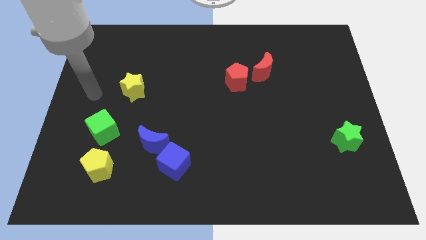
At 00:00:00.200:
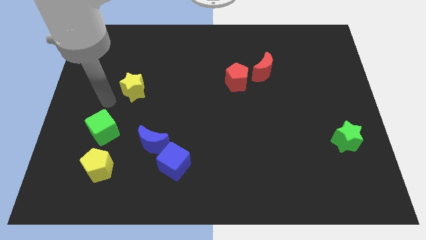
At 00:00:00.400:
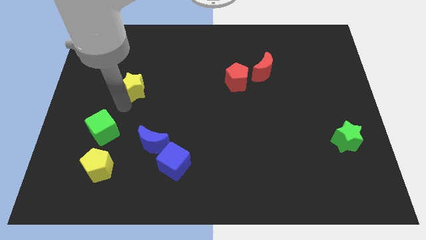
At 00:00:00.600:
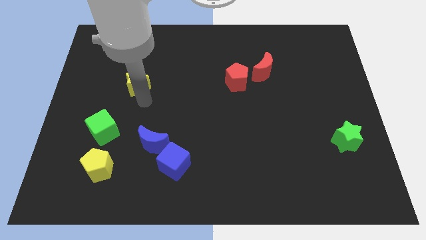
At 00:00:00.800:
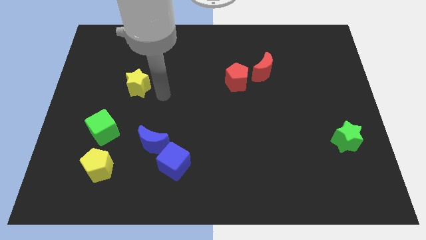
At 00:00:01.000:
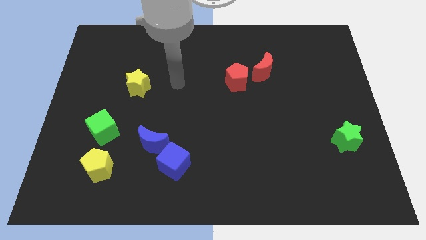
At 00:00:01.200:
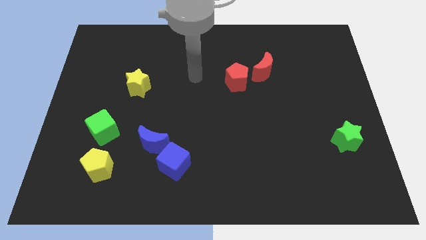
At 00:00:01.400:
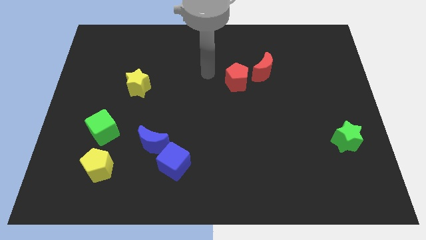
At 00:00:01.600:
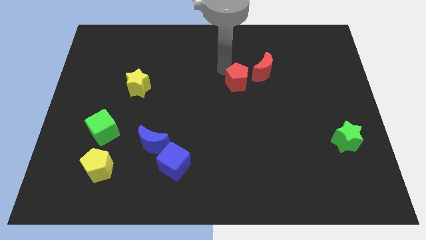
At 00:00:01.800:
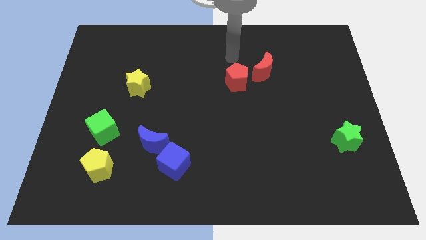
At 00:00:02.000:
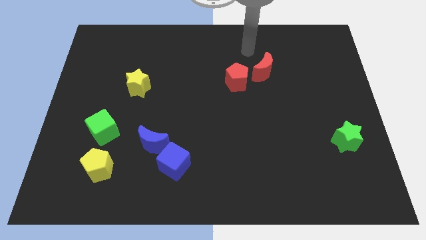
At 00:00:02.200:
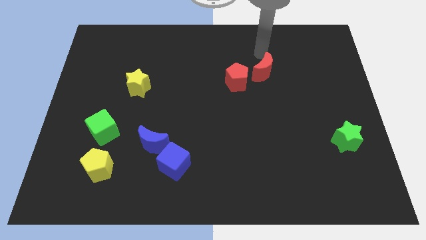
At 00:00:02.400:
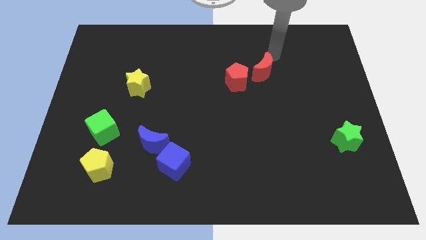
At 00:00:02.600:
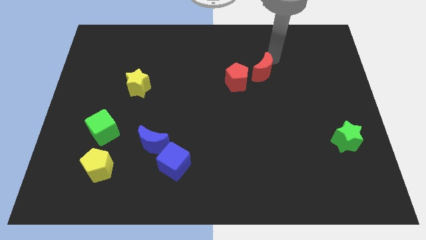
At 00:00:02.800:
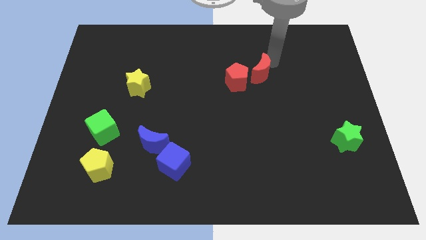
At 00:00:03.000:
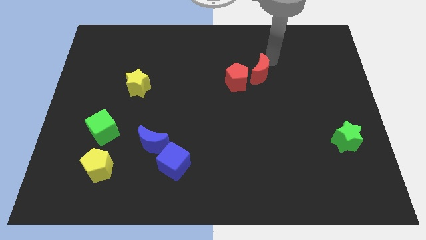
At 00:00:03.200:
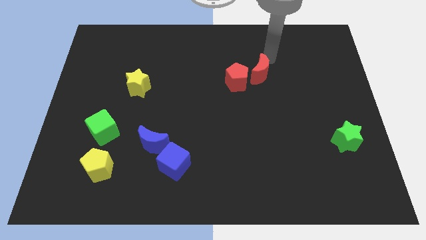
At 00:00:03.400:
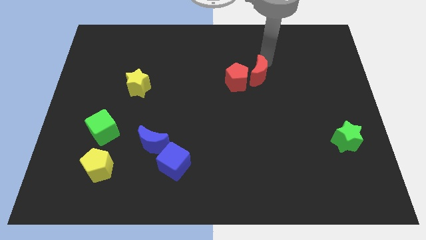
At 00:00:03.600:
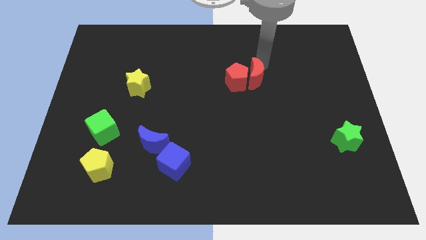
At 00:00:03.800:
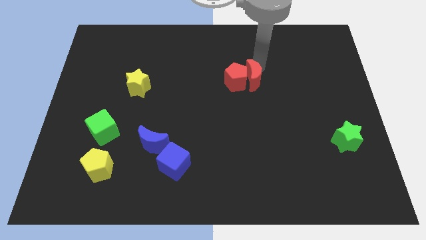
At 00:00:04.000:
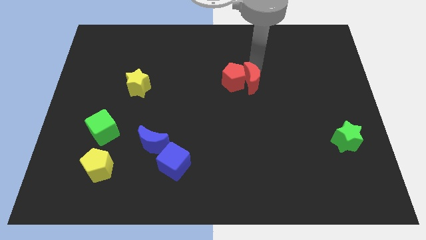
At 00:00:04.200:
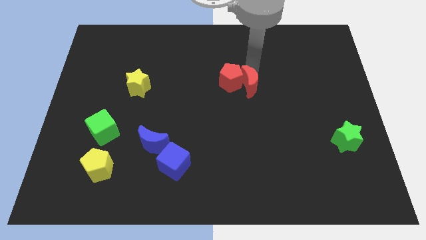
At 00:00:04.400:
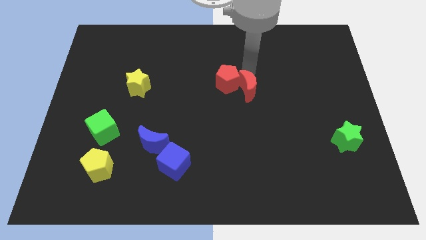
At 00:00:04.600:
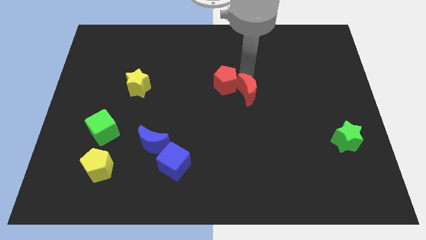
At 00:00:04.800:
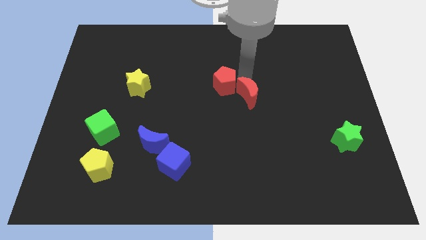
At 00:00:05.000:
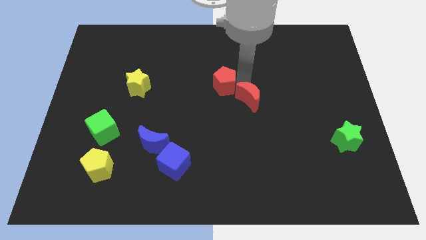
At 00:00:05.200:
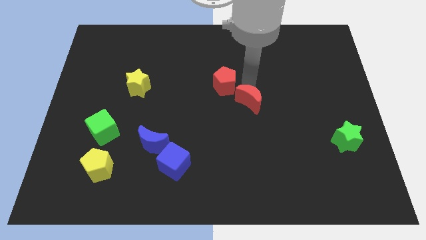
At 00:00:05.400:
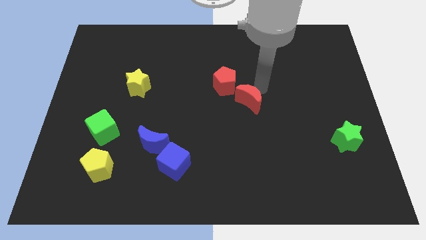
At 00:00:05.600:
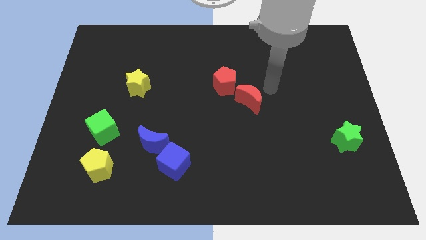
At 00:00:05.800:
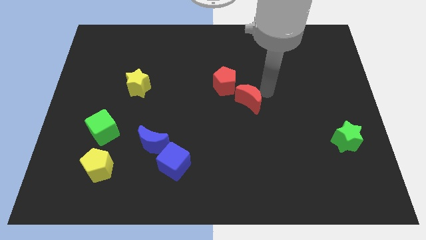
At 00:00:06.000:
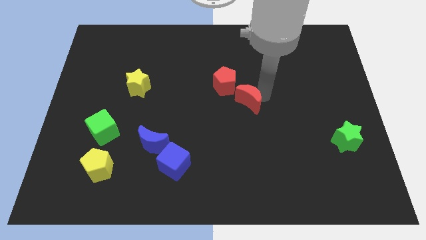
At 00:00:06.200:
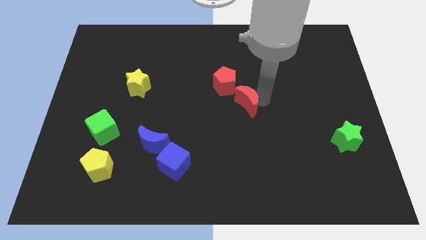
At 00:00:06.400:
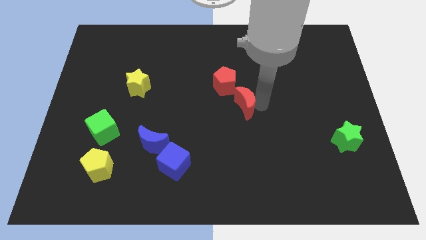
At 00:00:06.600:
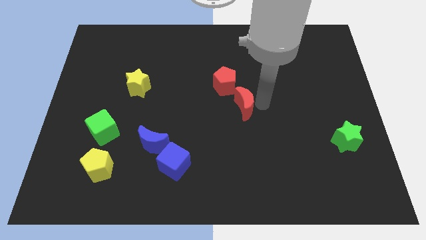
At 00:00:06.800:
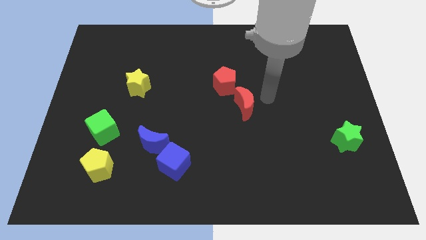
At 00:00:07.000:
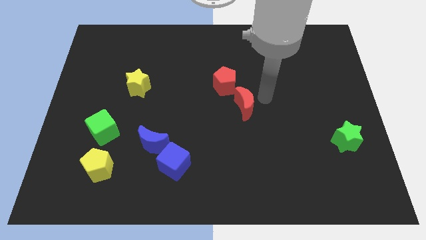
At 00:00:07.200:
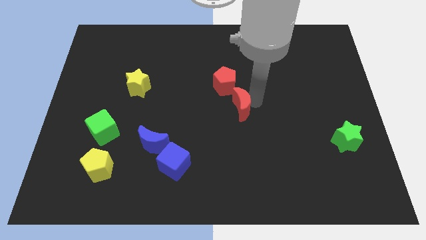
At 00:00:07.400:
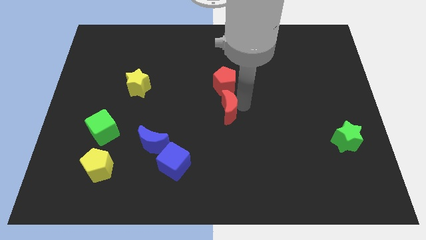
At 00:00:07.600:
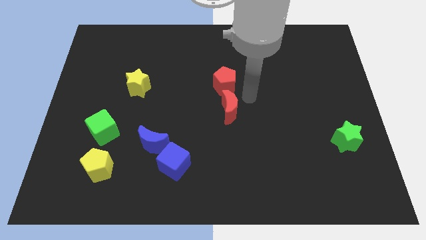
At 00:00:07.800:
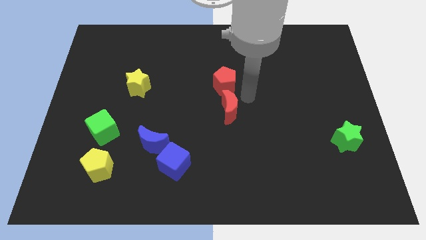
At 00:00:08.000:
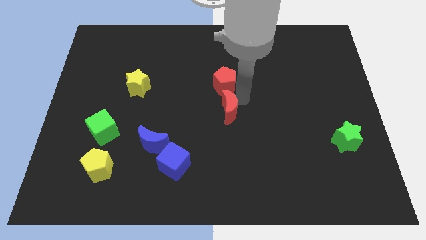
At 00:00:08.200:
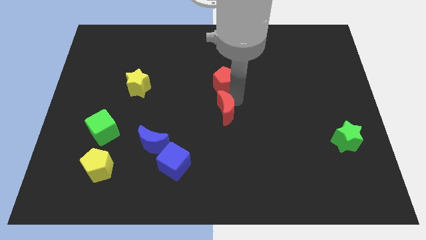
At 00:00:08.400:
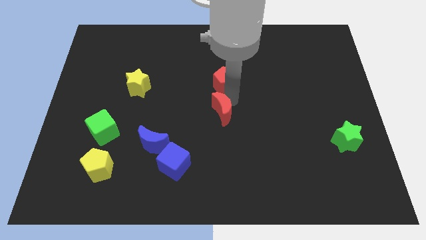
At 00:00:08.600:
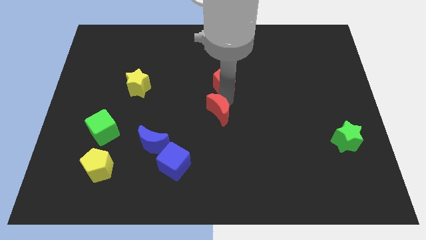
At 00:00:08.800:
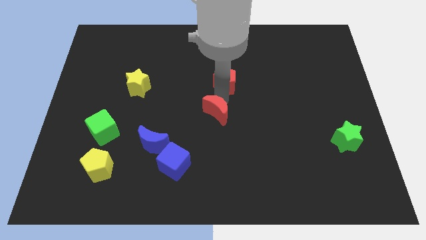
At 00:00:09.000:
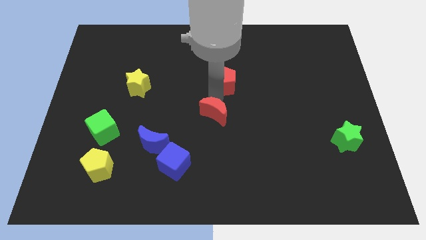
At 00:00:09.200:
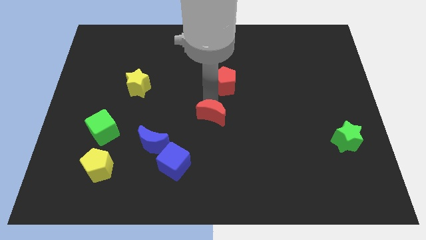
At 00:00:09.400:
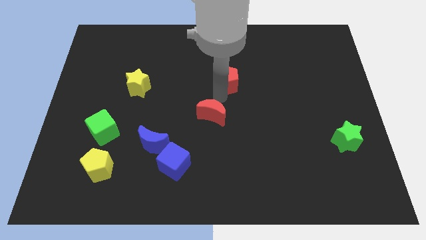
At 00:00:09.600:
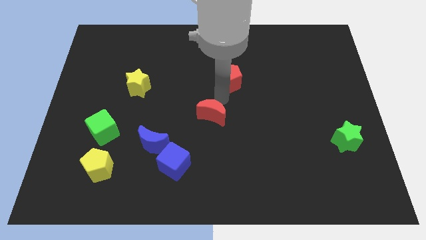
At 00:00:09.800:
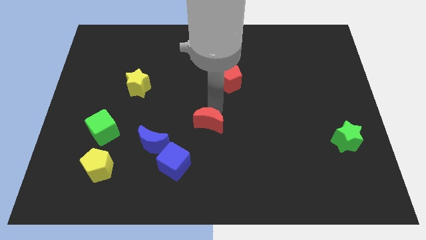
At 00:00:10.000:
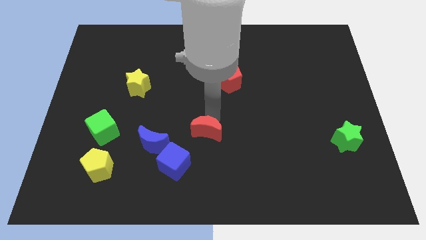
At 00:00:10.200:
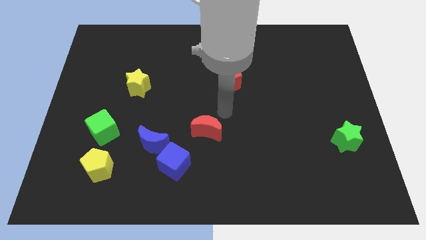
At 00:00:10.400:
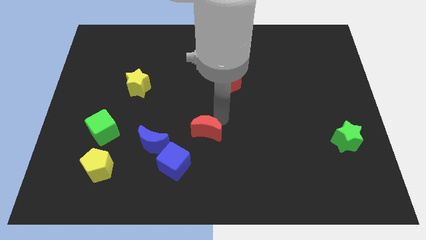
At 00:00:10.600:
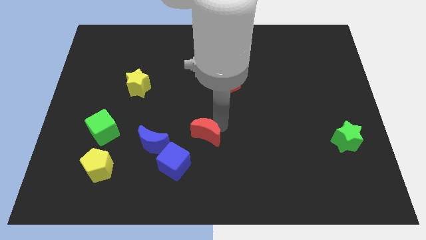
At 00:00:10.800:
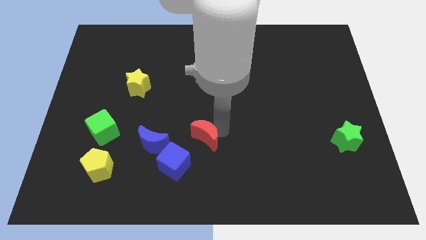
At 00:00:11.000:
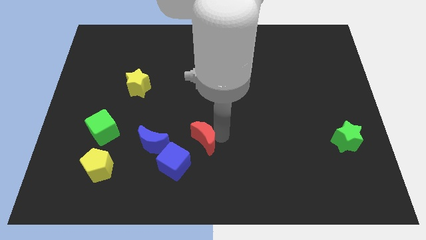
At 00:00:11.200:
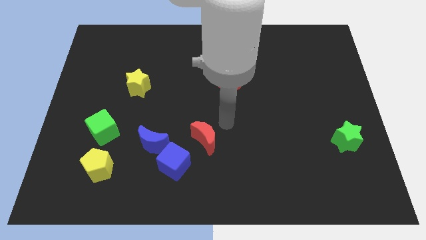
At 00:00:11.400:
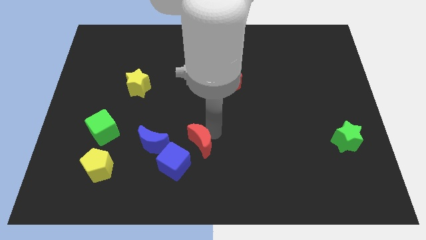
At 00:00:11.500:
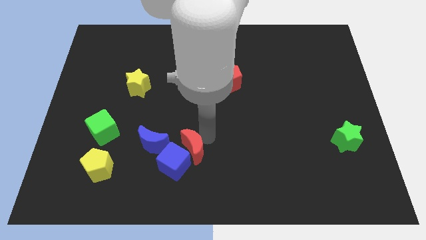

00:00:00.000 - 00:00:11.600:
slide the red moon towards the blue cube
